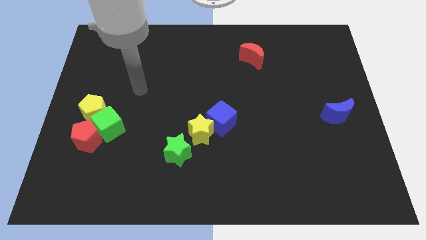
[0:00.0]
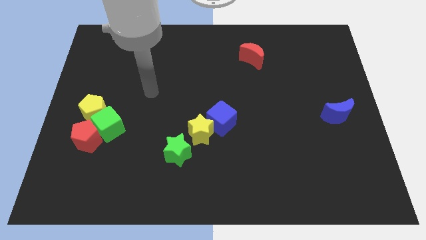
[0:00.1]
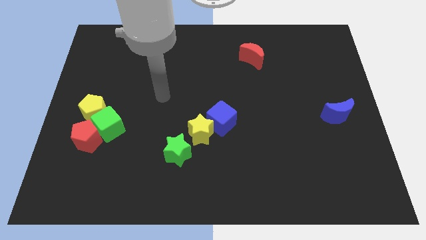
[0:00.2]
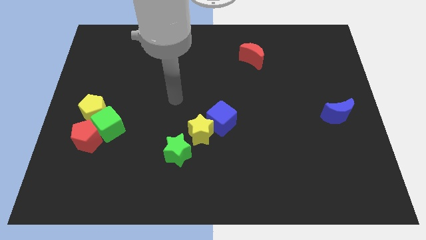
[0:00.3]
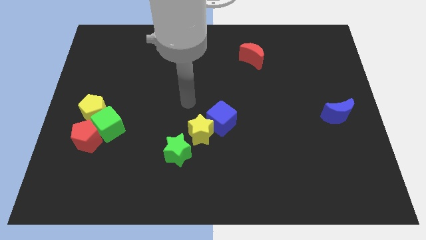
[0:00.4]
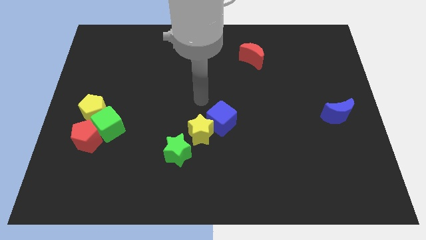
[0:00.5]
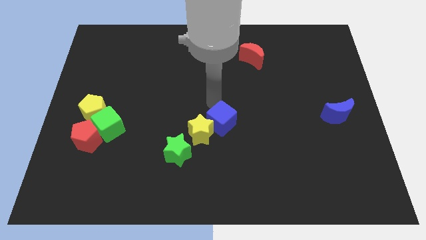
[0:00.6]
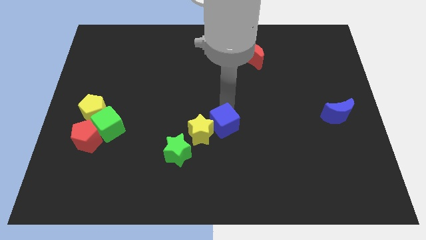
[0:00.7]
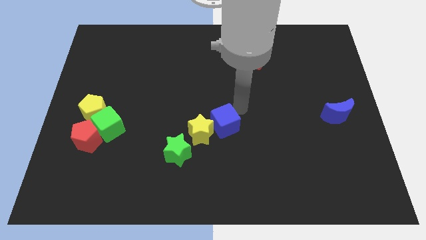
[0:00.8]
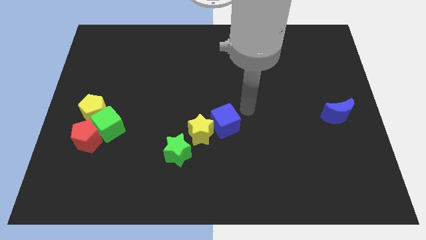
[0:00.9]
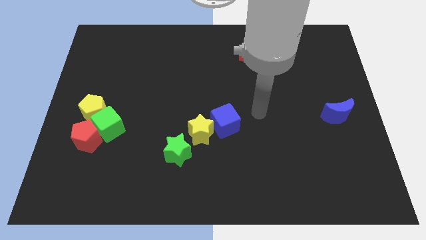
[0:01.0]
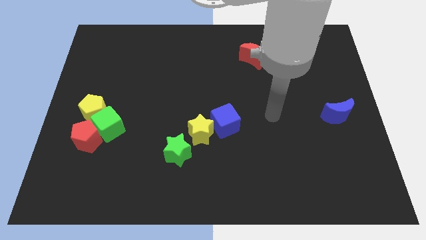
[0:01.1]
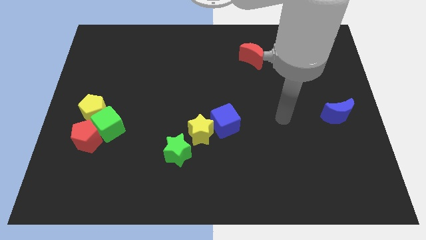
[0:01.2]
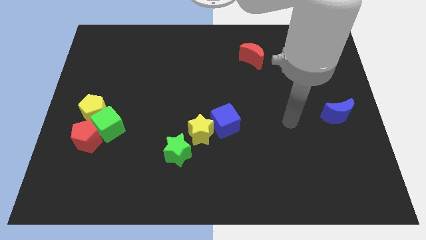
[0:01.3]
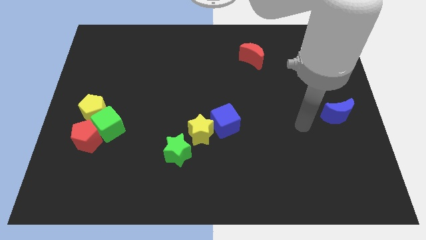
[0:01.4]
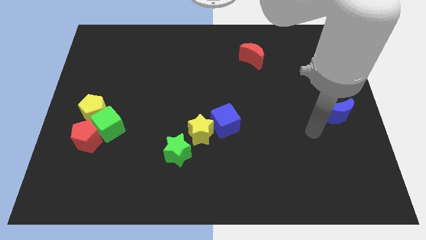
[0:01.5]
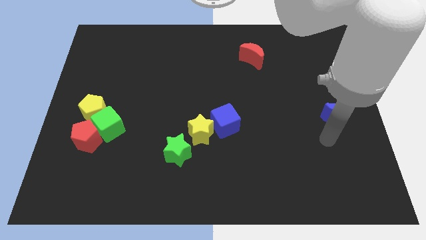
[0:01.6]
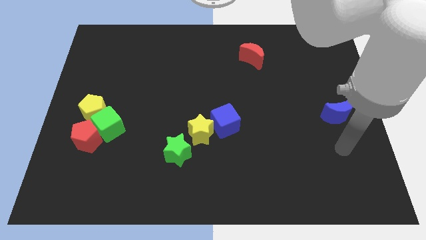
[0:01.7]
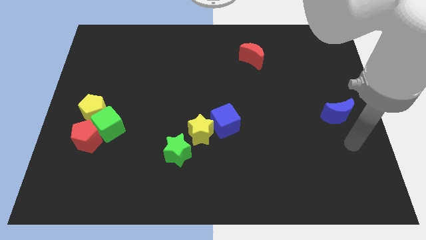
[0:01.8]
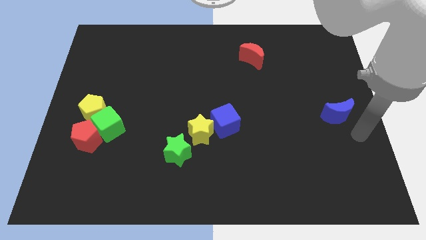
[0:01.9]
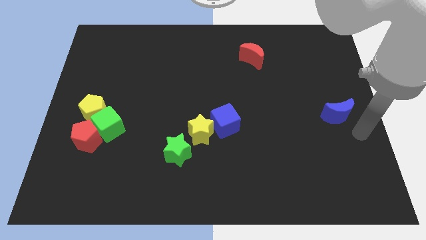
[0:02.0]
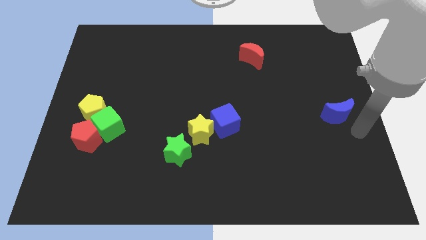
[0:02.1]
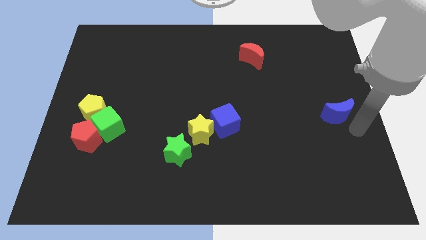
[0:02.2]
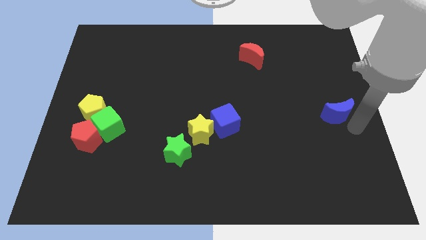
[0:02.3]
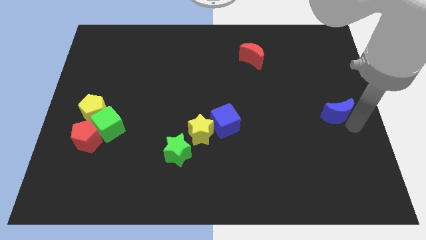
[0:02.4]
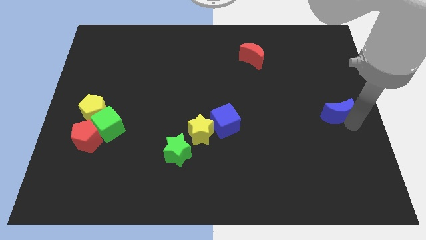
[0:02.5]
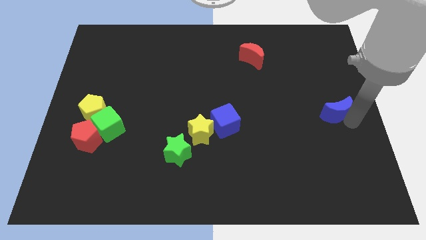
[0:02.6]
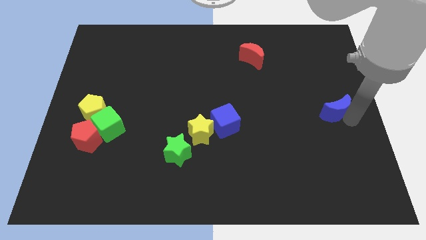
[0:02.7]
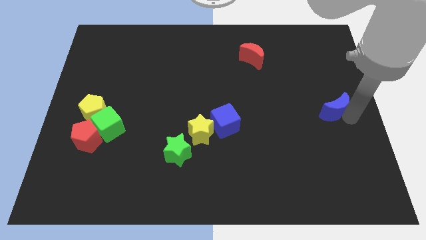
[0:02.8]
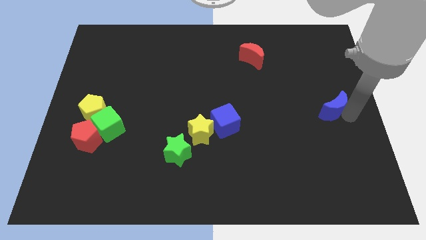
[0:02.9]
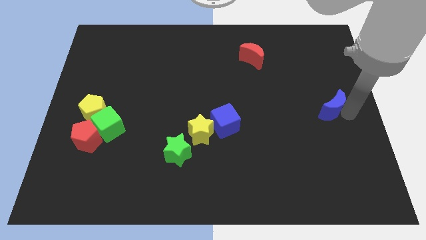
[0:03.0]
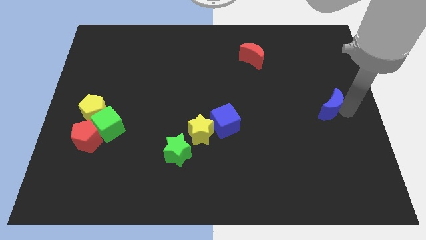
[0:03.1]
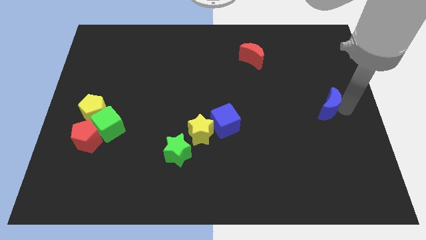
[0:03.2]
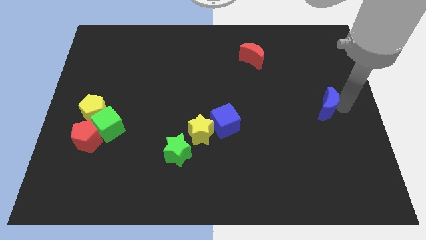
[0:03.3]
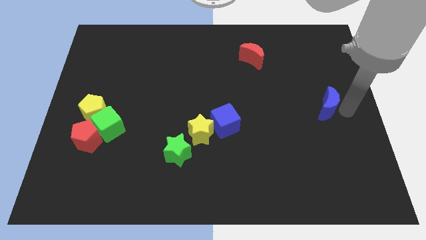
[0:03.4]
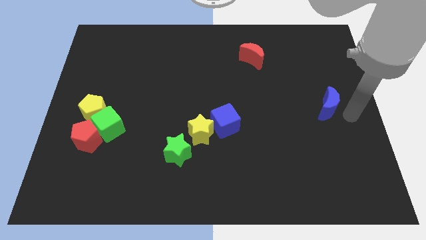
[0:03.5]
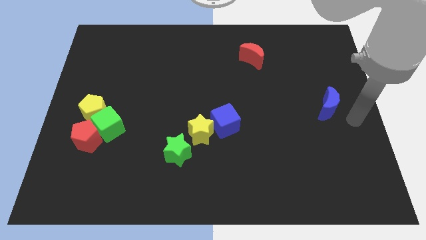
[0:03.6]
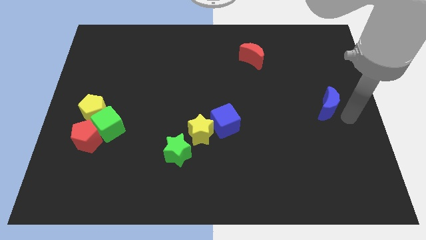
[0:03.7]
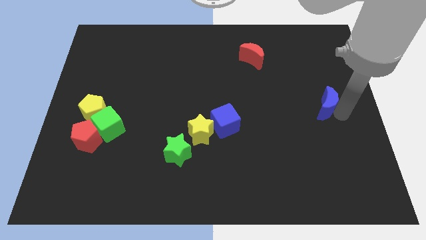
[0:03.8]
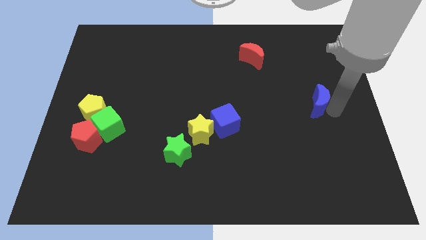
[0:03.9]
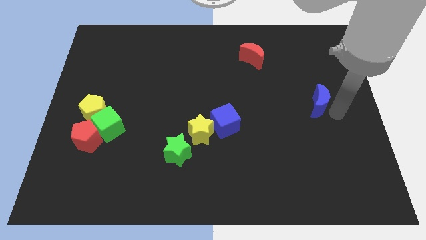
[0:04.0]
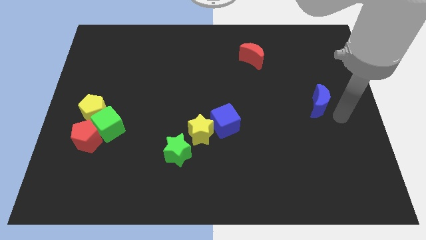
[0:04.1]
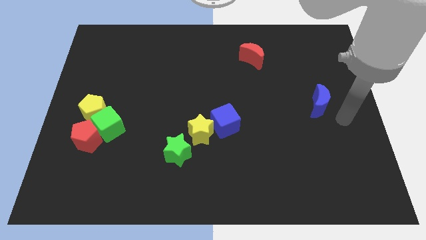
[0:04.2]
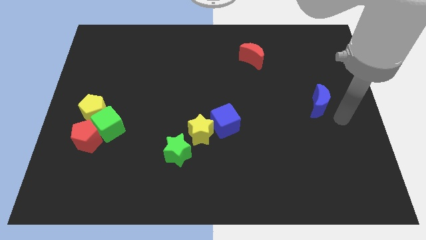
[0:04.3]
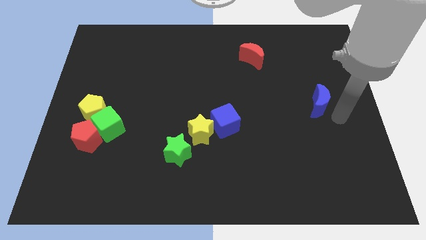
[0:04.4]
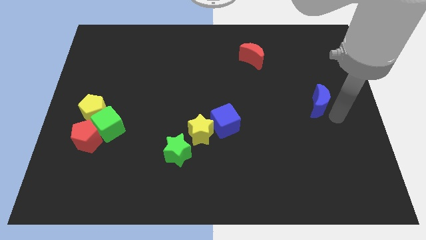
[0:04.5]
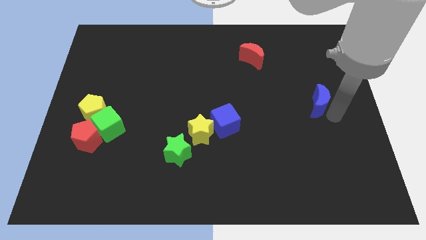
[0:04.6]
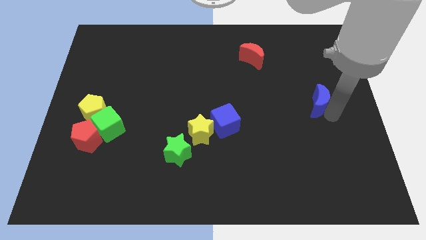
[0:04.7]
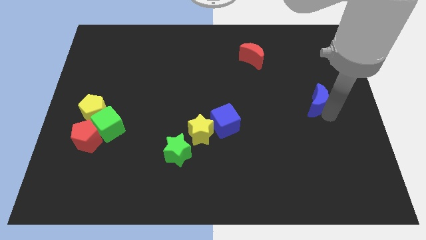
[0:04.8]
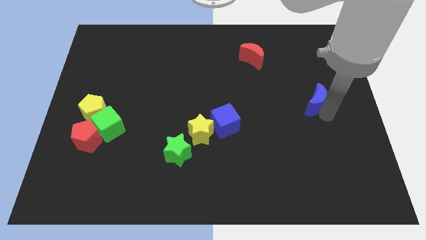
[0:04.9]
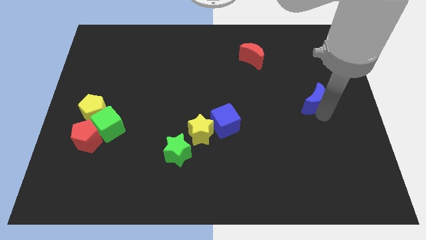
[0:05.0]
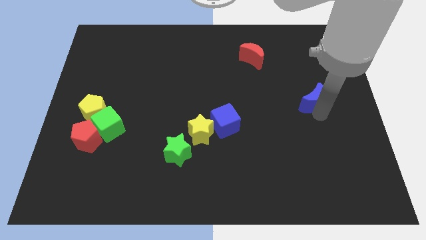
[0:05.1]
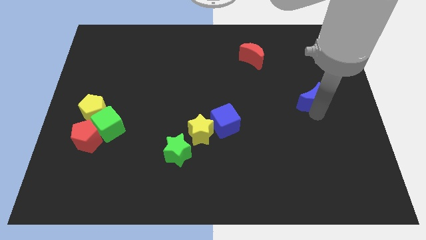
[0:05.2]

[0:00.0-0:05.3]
slide the blue moon up and then to the left a bit

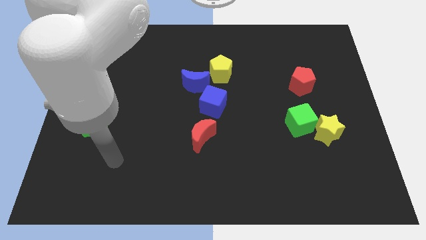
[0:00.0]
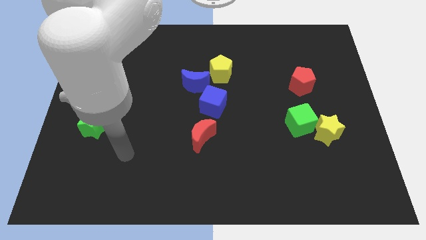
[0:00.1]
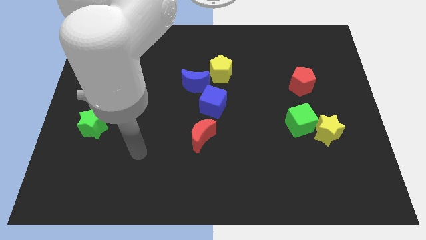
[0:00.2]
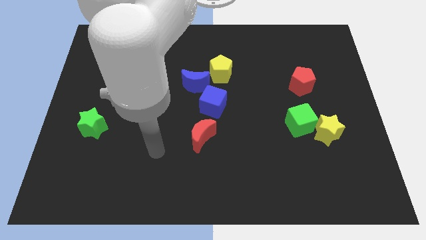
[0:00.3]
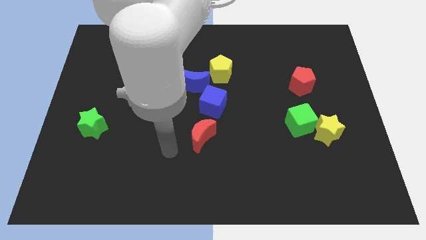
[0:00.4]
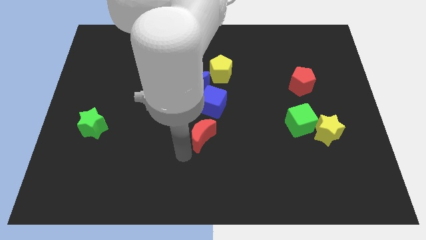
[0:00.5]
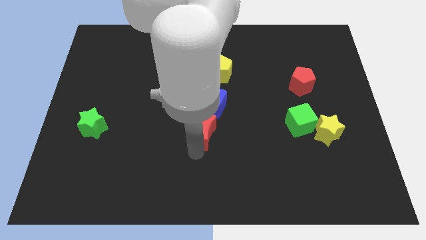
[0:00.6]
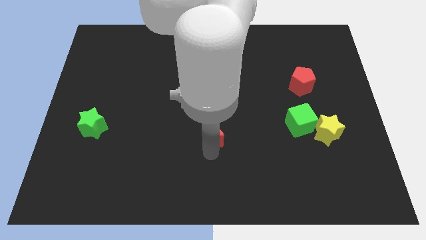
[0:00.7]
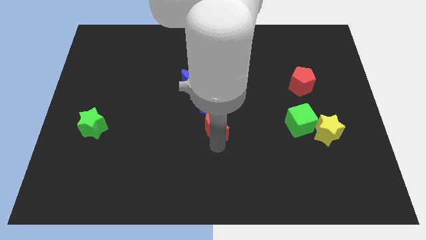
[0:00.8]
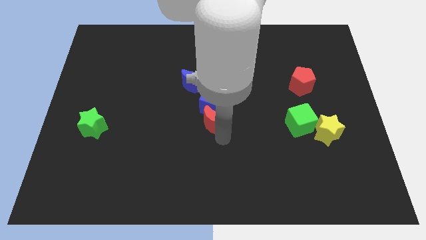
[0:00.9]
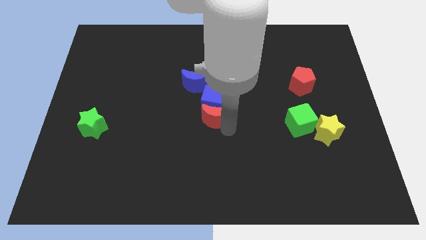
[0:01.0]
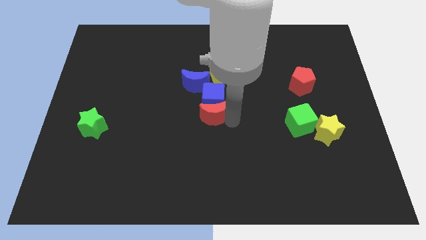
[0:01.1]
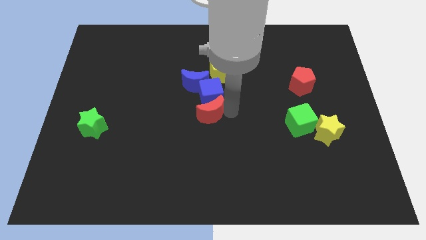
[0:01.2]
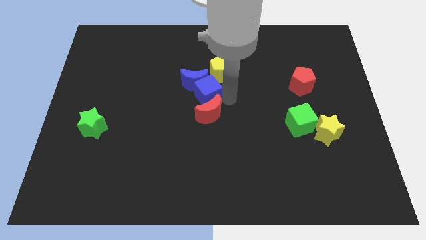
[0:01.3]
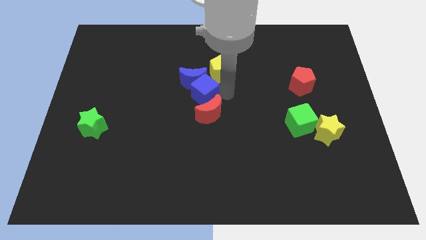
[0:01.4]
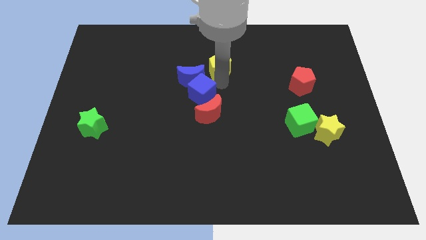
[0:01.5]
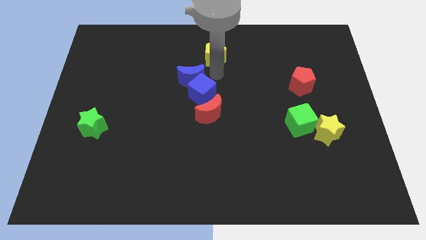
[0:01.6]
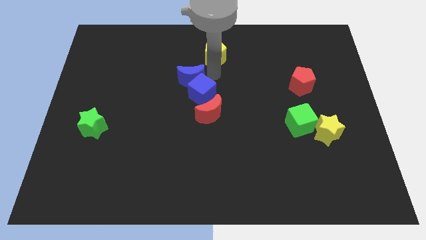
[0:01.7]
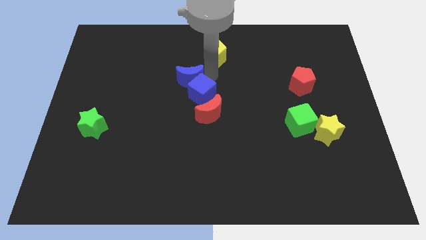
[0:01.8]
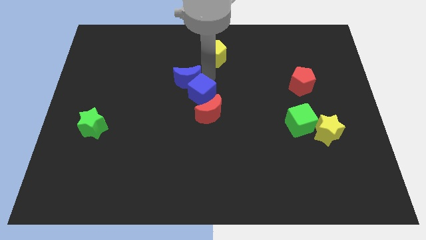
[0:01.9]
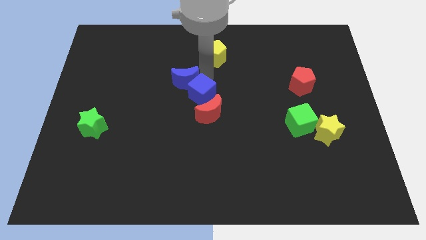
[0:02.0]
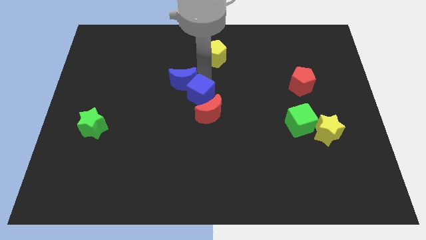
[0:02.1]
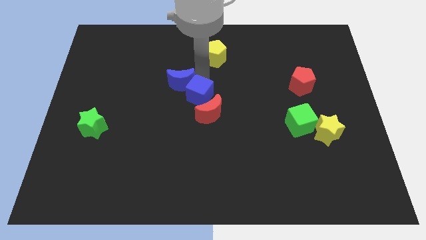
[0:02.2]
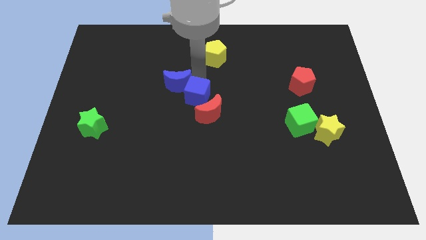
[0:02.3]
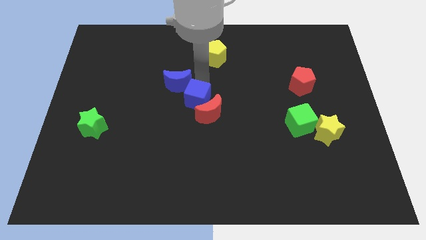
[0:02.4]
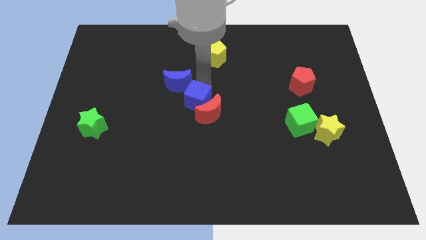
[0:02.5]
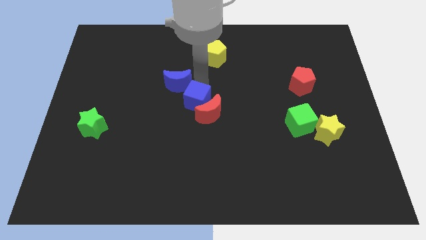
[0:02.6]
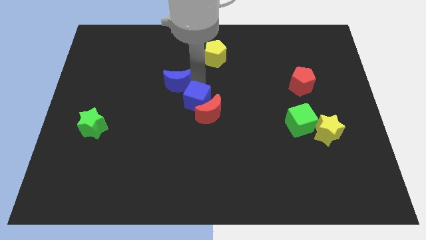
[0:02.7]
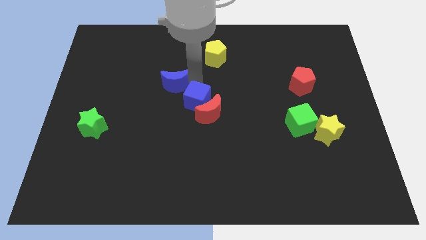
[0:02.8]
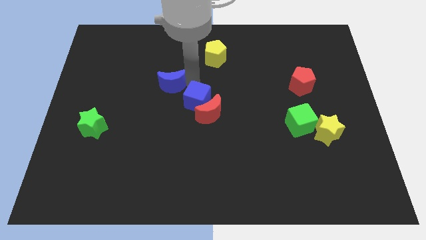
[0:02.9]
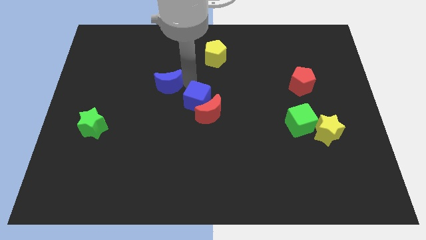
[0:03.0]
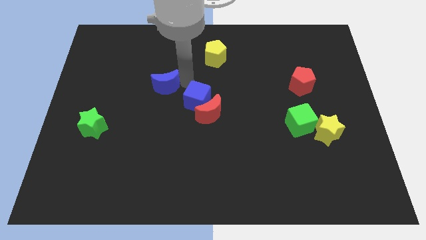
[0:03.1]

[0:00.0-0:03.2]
slide the blue moon a bit left
